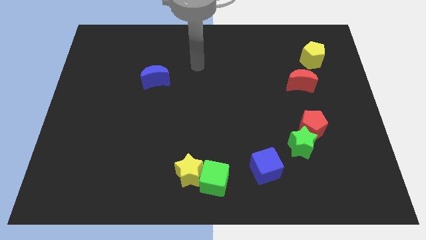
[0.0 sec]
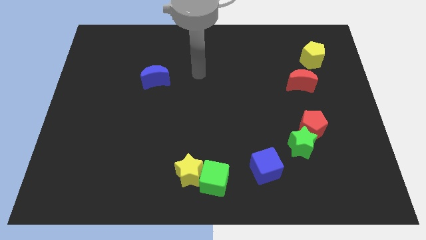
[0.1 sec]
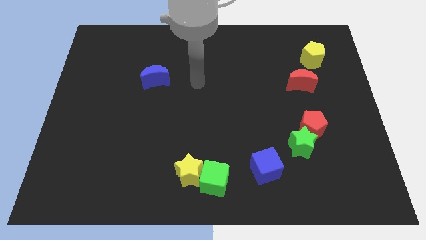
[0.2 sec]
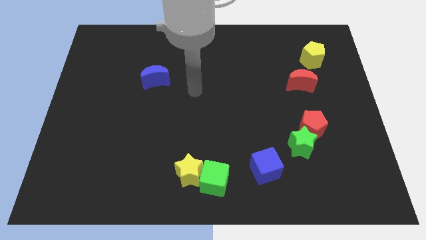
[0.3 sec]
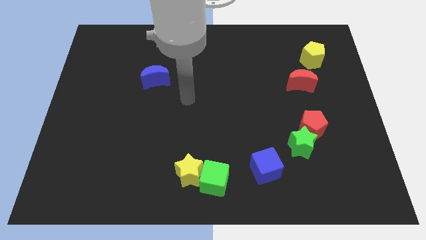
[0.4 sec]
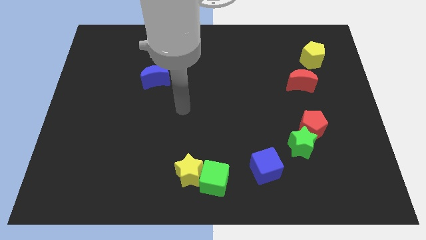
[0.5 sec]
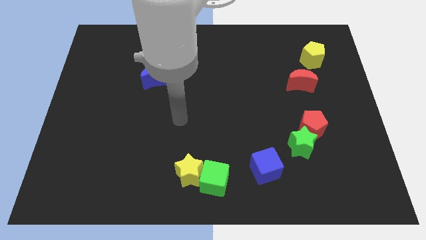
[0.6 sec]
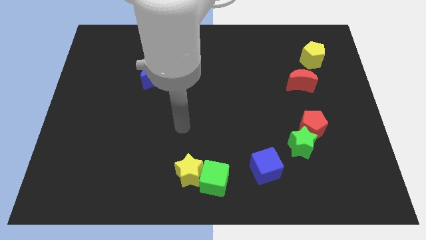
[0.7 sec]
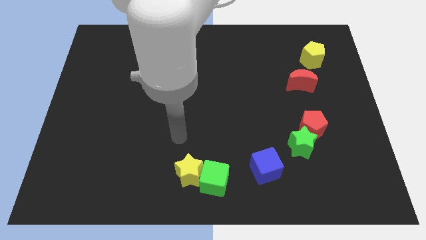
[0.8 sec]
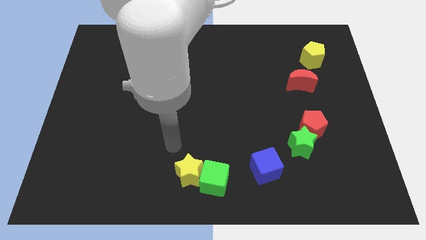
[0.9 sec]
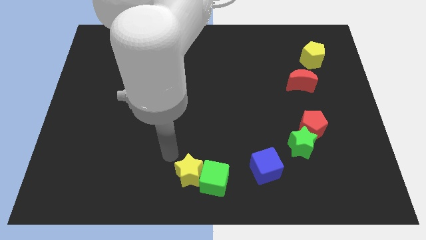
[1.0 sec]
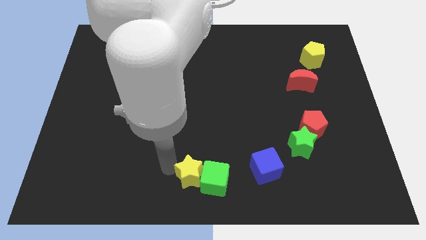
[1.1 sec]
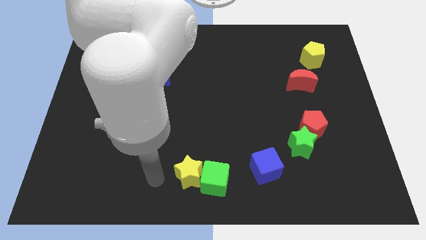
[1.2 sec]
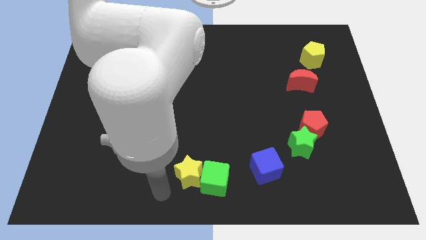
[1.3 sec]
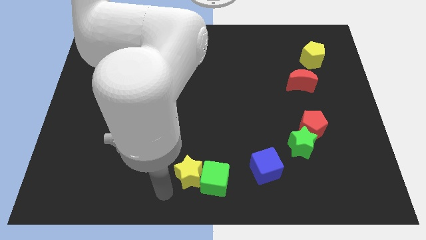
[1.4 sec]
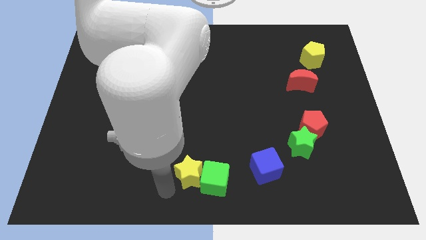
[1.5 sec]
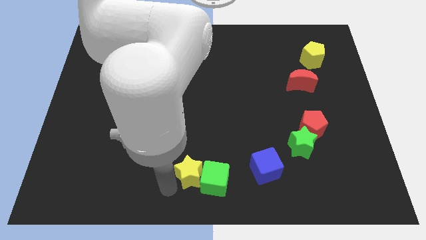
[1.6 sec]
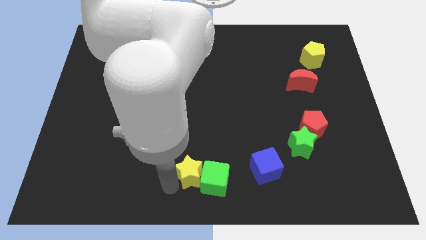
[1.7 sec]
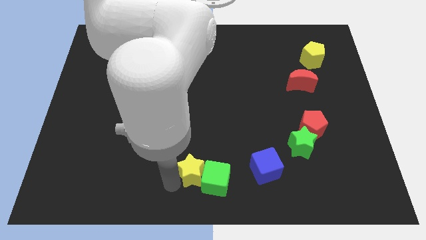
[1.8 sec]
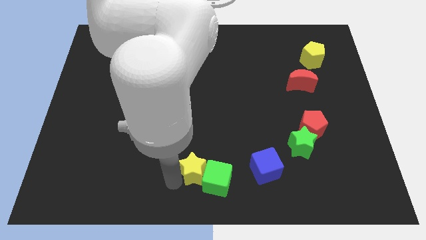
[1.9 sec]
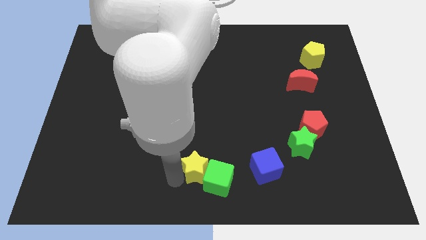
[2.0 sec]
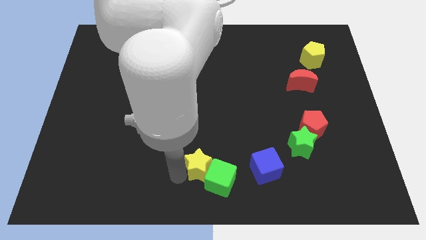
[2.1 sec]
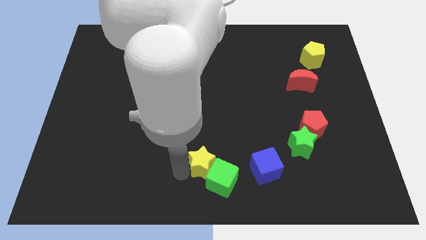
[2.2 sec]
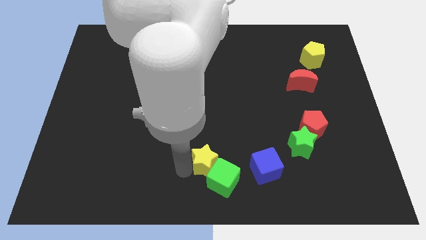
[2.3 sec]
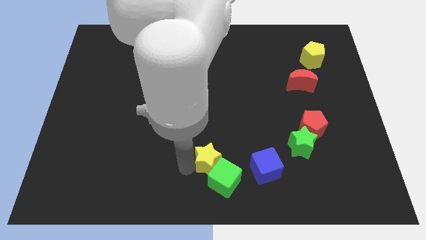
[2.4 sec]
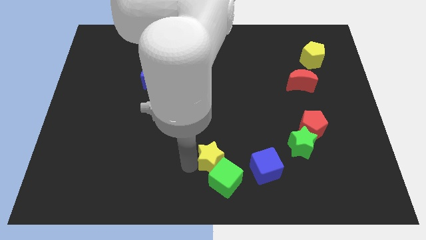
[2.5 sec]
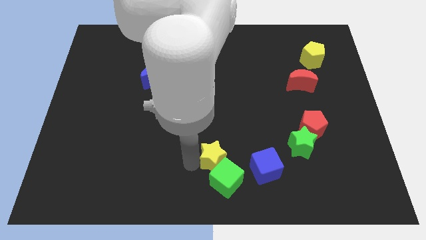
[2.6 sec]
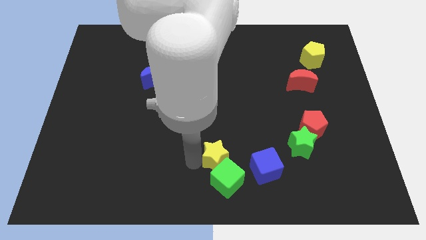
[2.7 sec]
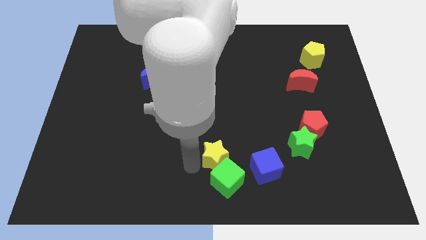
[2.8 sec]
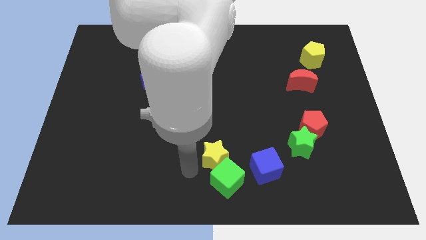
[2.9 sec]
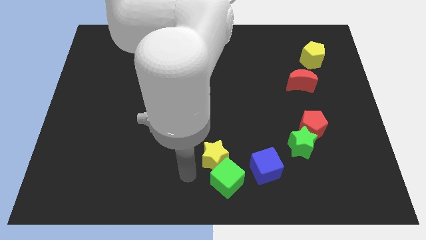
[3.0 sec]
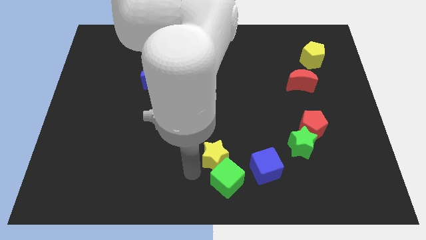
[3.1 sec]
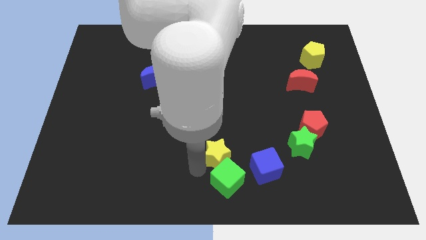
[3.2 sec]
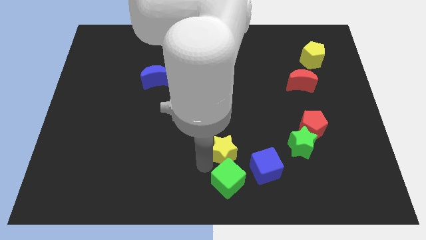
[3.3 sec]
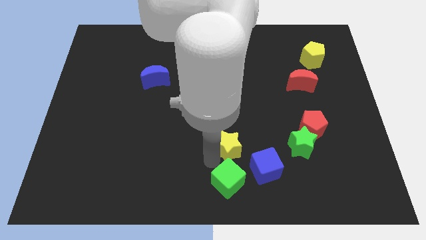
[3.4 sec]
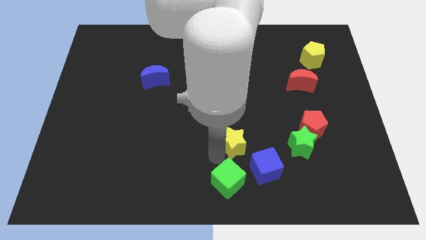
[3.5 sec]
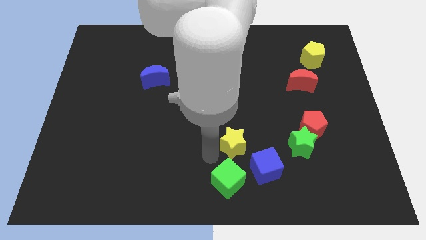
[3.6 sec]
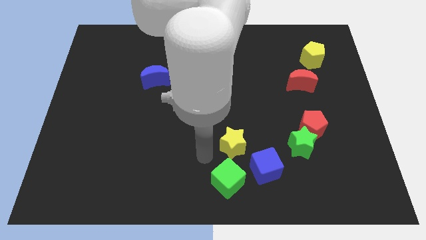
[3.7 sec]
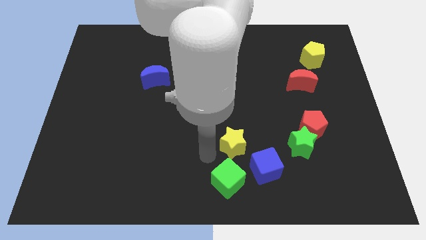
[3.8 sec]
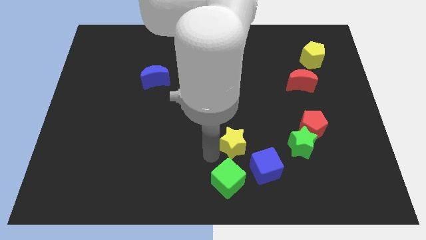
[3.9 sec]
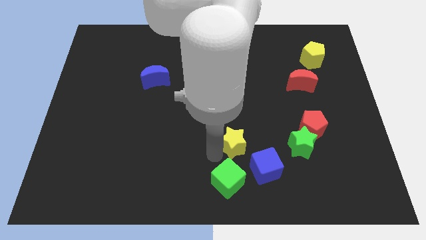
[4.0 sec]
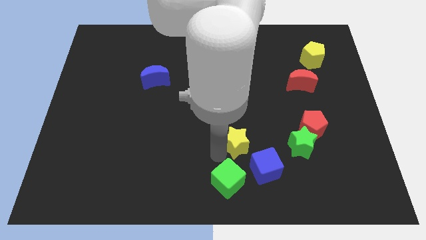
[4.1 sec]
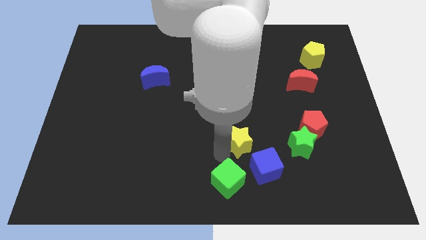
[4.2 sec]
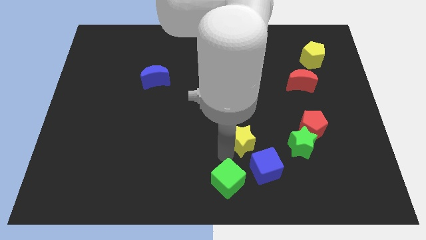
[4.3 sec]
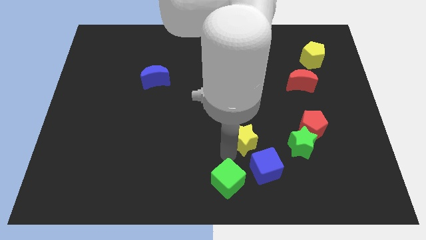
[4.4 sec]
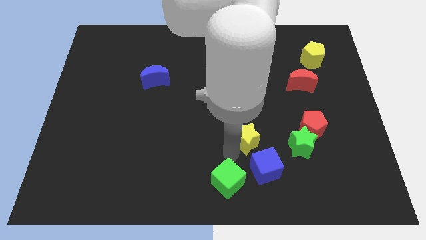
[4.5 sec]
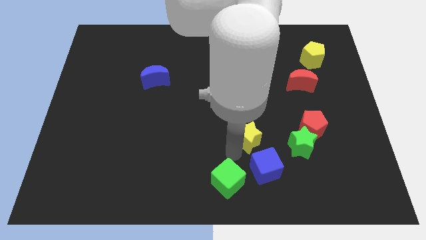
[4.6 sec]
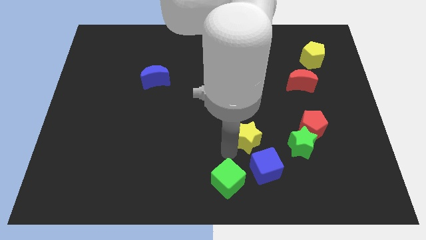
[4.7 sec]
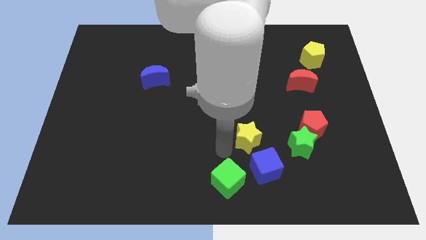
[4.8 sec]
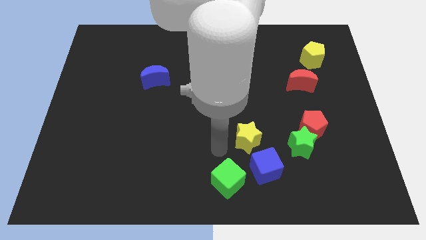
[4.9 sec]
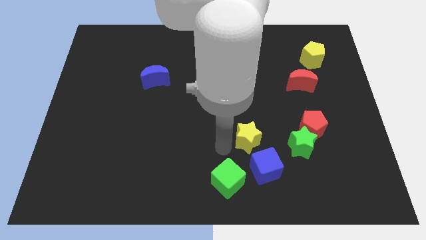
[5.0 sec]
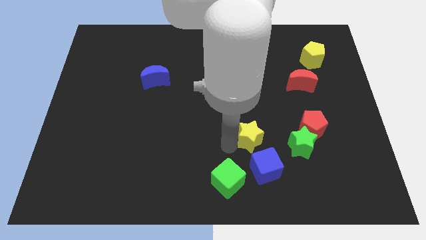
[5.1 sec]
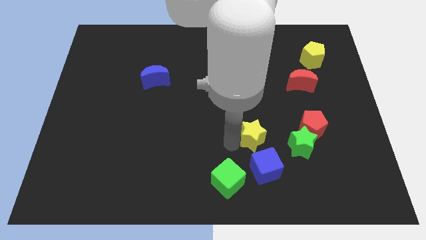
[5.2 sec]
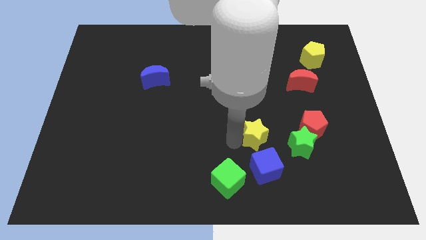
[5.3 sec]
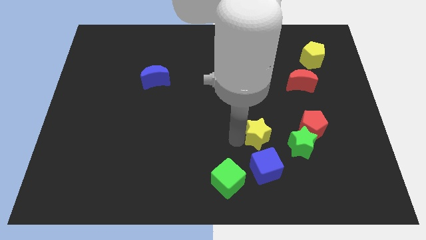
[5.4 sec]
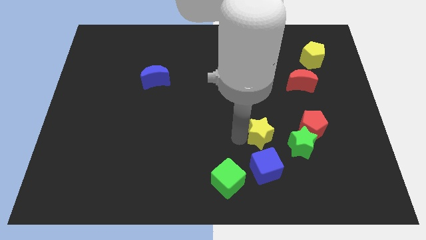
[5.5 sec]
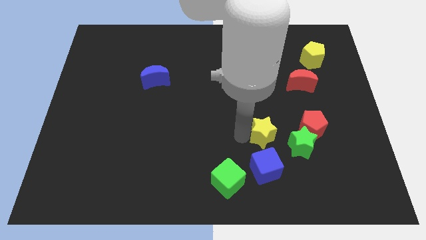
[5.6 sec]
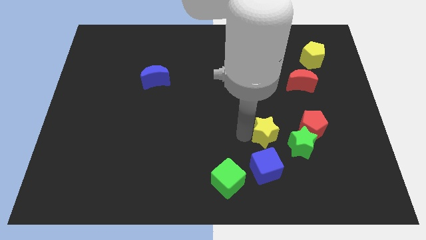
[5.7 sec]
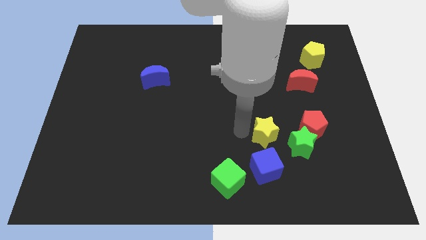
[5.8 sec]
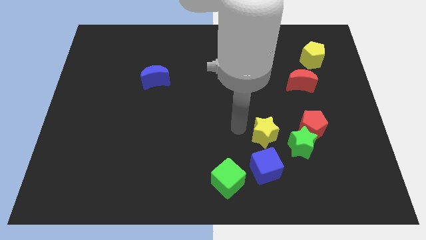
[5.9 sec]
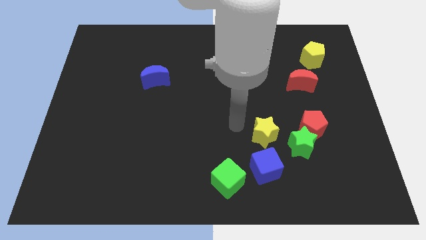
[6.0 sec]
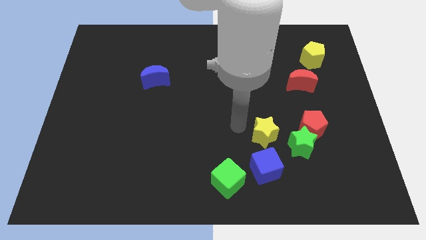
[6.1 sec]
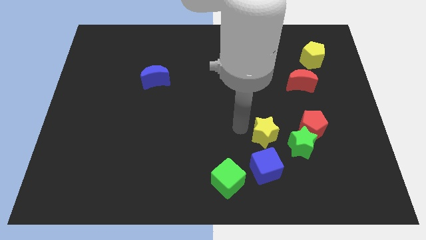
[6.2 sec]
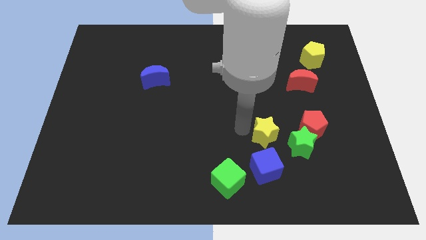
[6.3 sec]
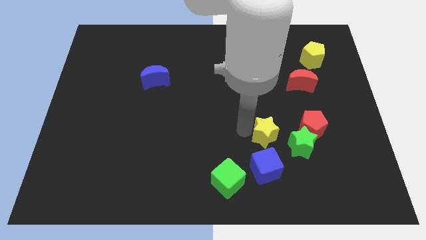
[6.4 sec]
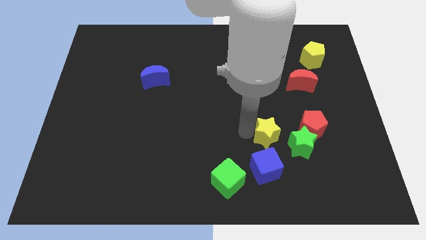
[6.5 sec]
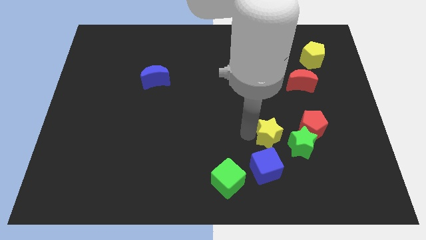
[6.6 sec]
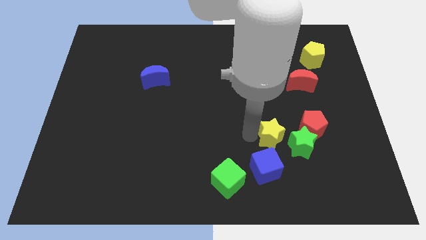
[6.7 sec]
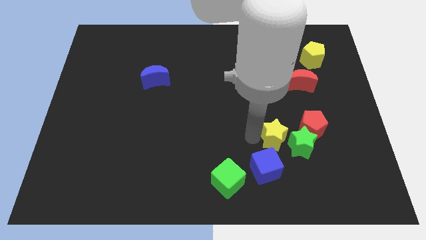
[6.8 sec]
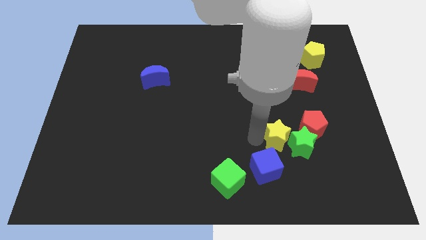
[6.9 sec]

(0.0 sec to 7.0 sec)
move the yellow star towards the green star

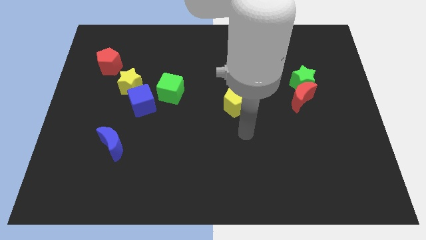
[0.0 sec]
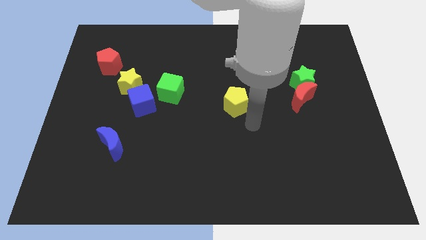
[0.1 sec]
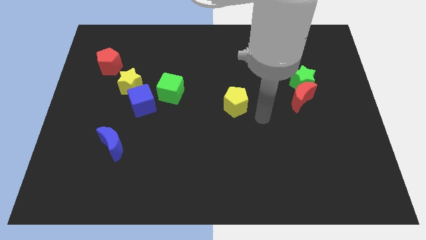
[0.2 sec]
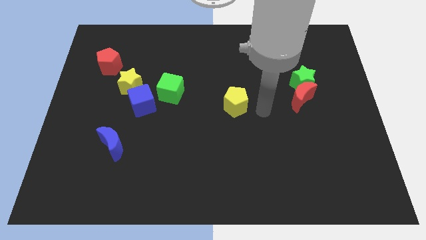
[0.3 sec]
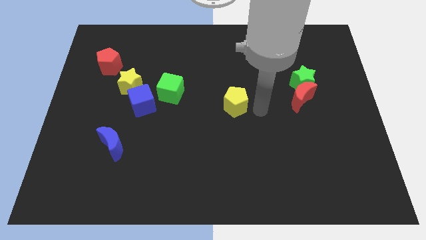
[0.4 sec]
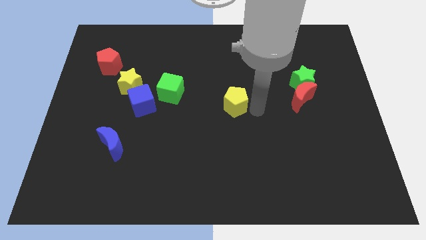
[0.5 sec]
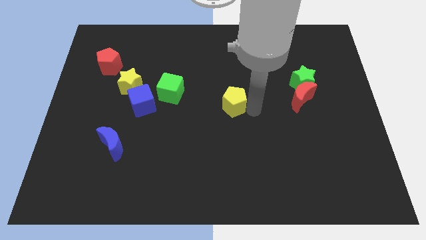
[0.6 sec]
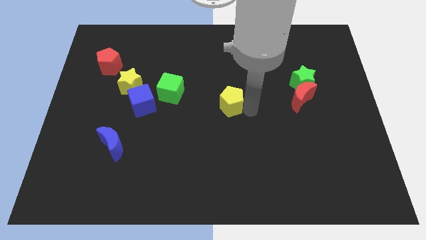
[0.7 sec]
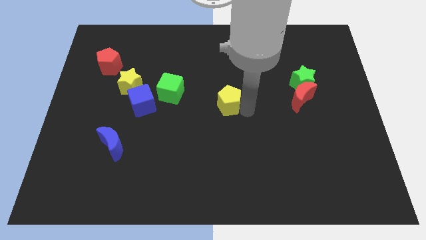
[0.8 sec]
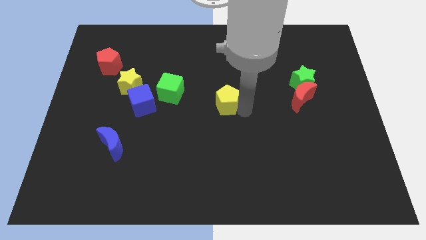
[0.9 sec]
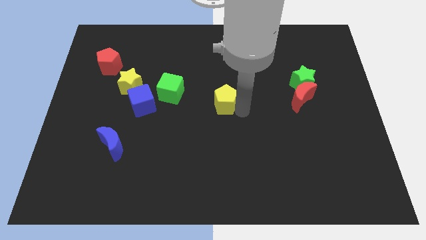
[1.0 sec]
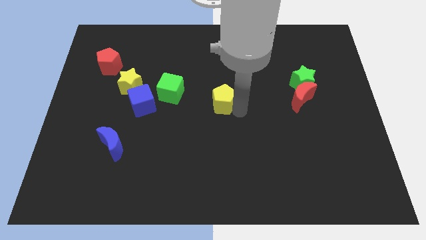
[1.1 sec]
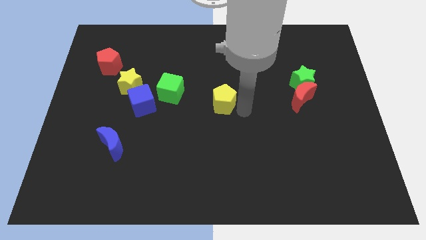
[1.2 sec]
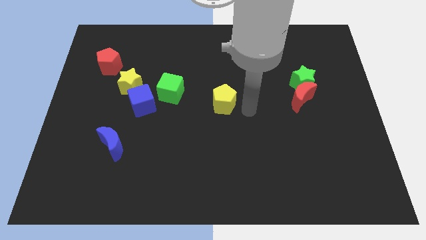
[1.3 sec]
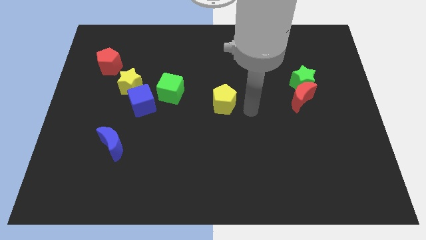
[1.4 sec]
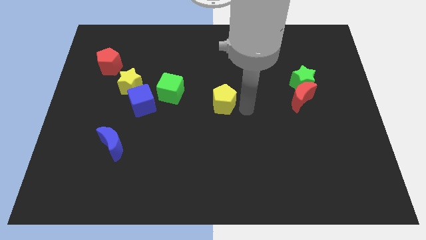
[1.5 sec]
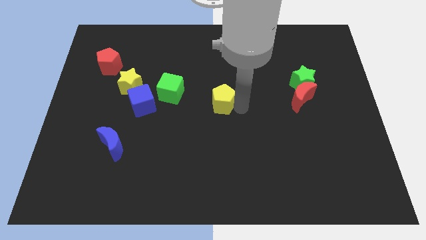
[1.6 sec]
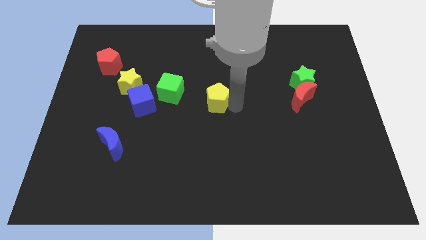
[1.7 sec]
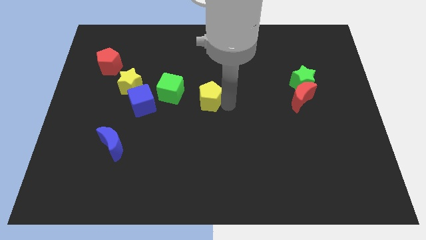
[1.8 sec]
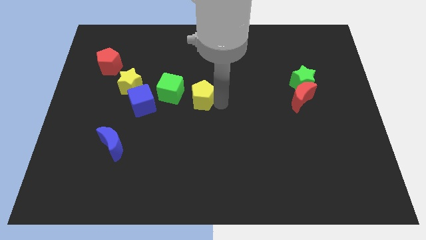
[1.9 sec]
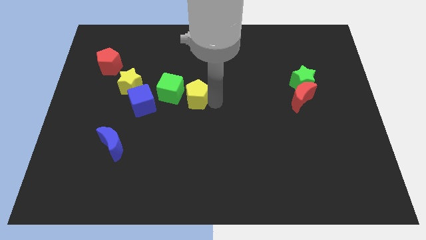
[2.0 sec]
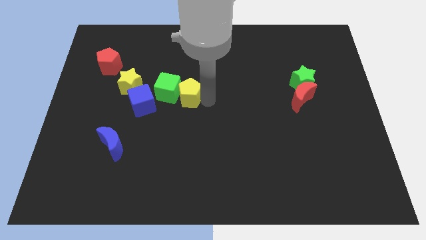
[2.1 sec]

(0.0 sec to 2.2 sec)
put the yellow pentagon to the green cube
